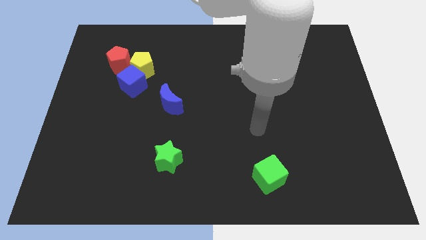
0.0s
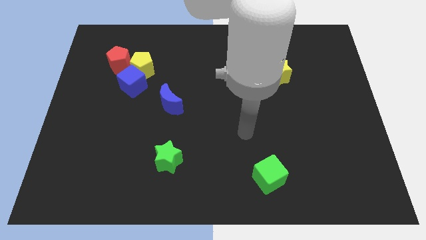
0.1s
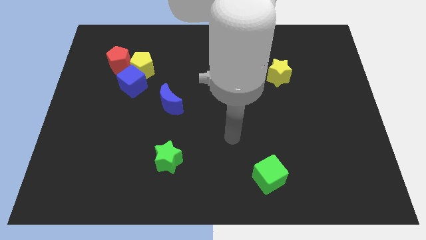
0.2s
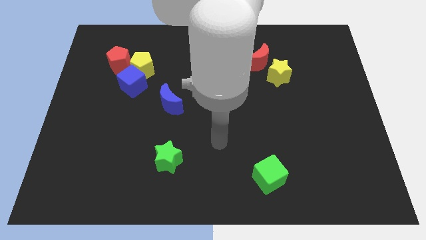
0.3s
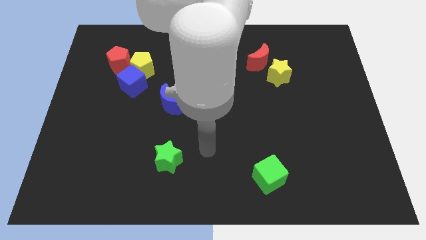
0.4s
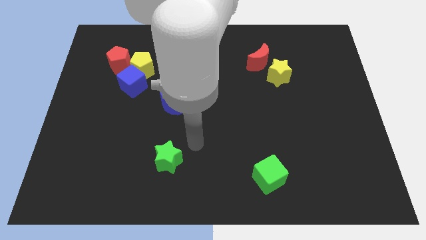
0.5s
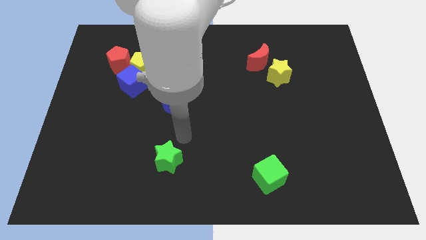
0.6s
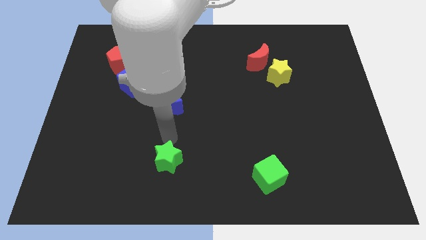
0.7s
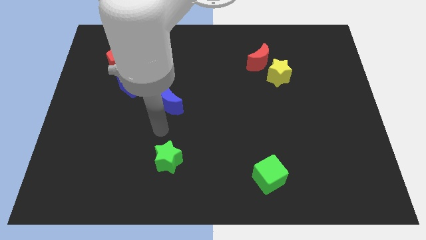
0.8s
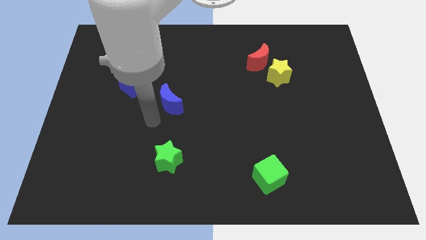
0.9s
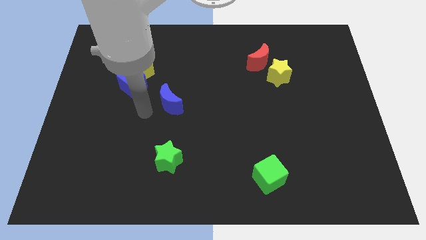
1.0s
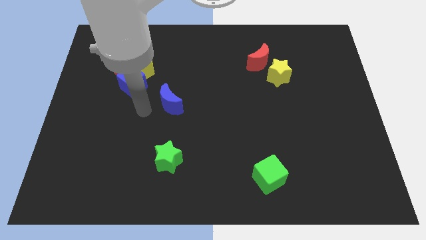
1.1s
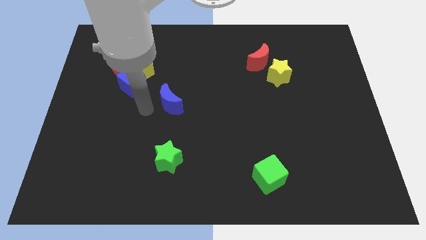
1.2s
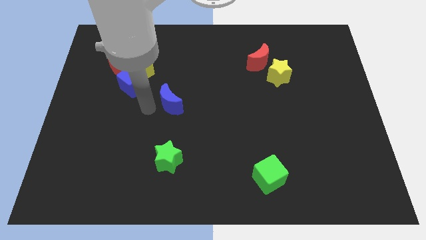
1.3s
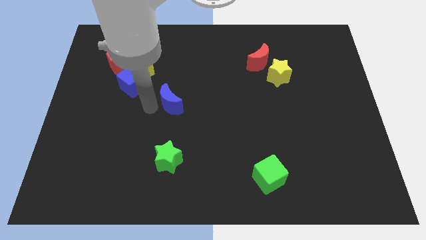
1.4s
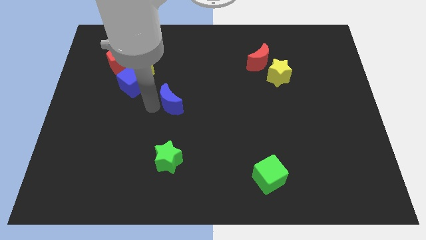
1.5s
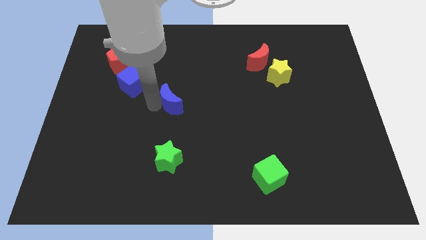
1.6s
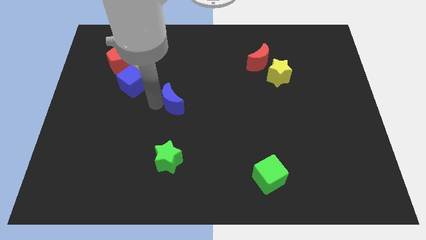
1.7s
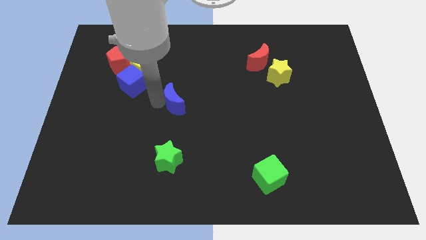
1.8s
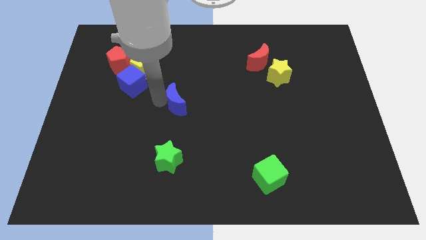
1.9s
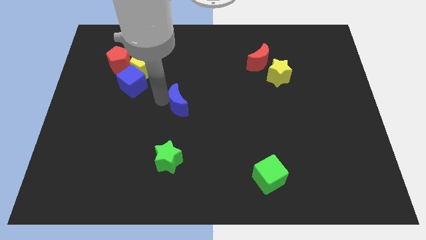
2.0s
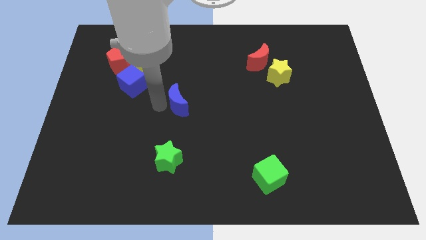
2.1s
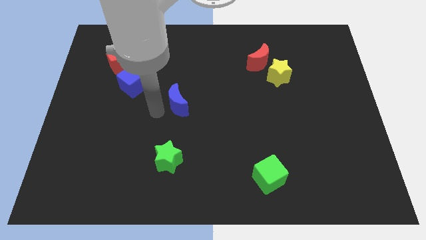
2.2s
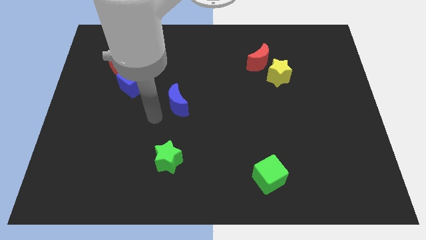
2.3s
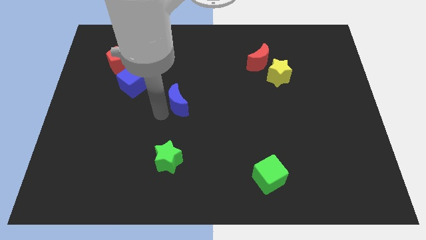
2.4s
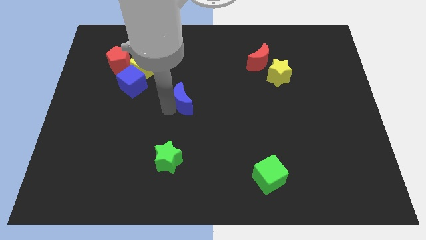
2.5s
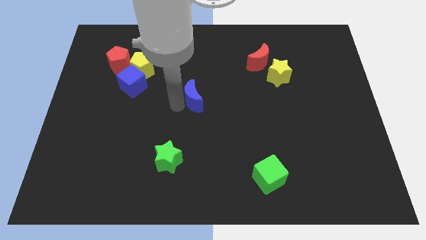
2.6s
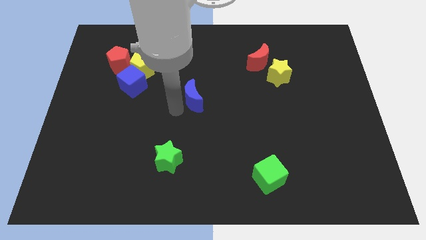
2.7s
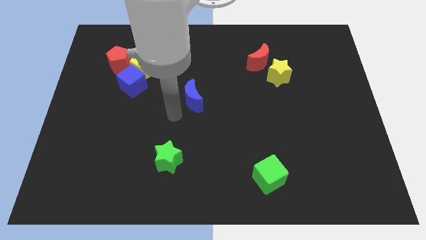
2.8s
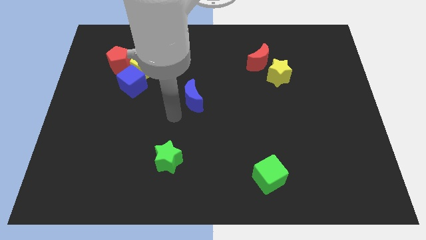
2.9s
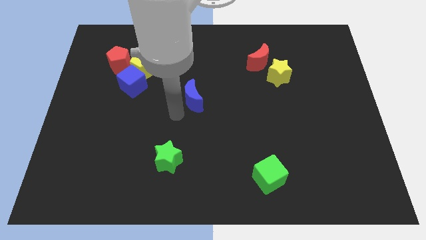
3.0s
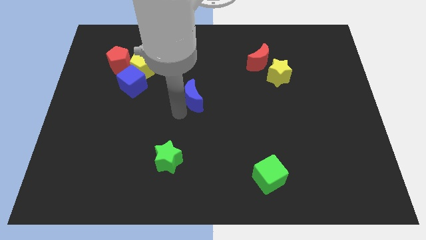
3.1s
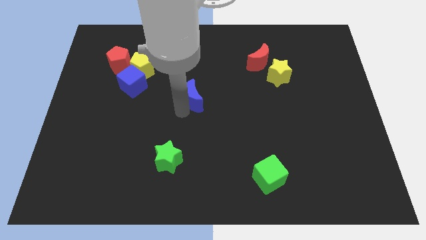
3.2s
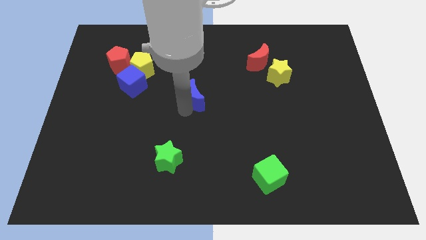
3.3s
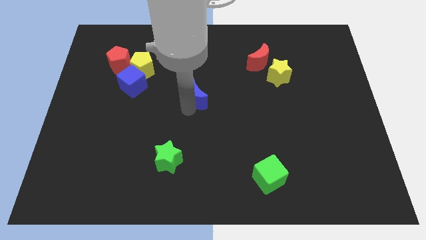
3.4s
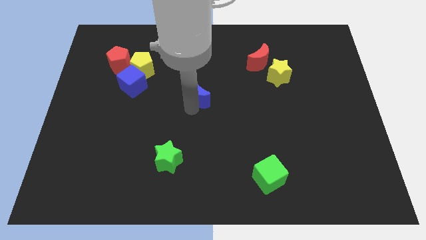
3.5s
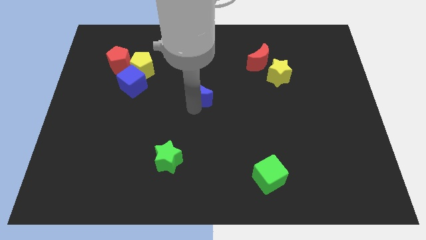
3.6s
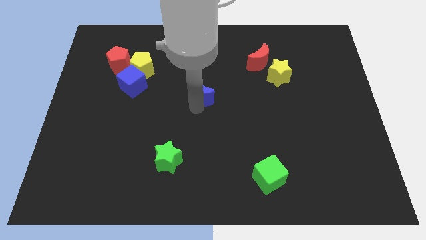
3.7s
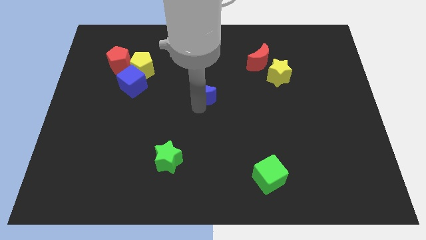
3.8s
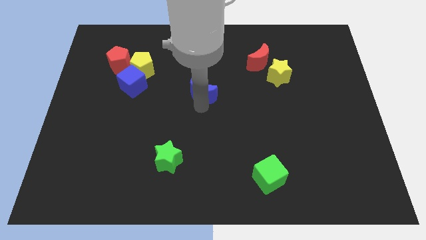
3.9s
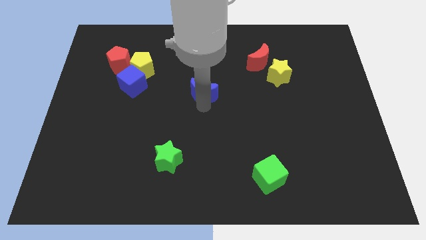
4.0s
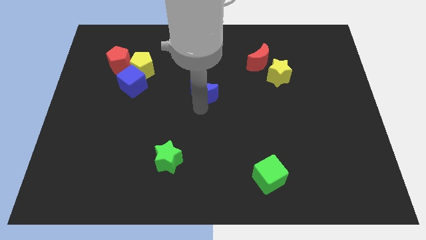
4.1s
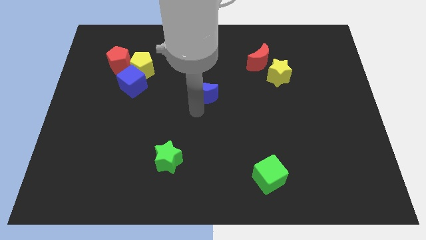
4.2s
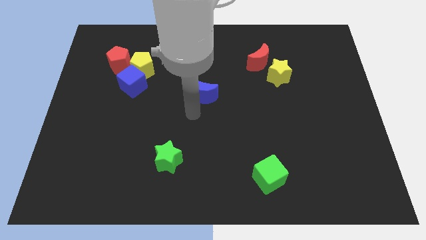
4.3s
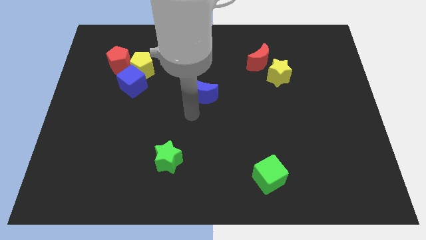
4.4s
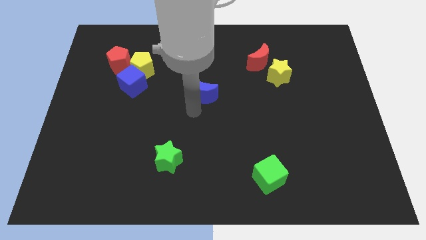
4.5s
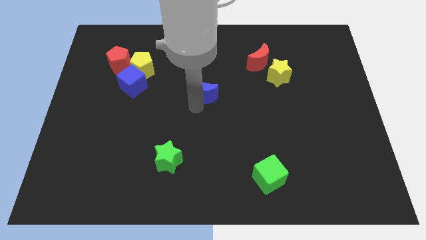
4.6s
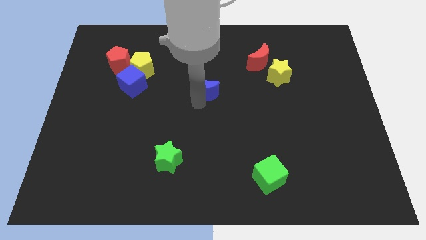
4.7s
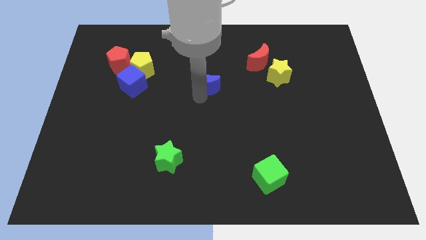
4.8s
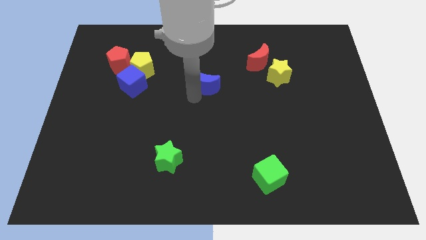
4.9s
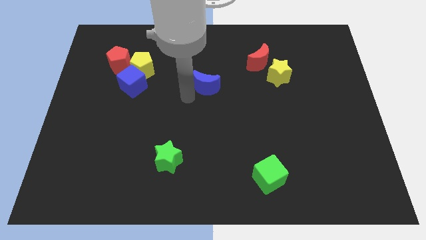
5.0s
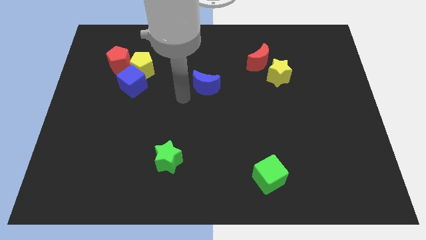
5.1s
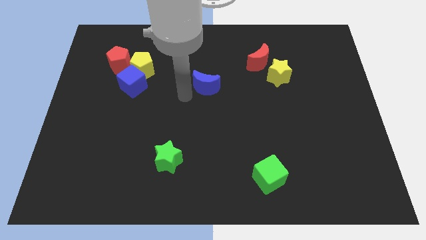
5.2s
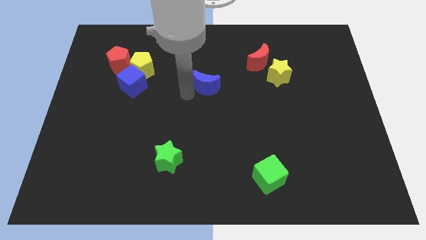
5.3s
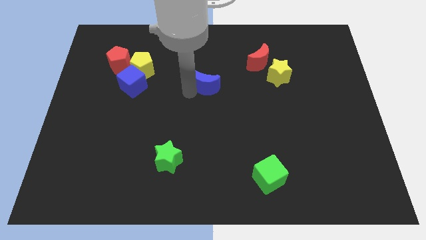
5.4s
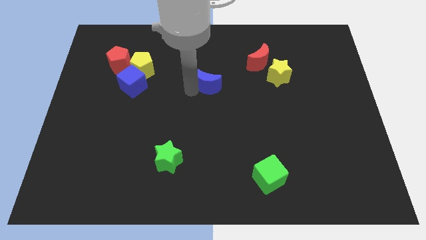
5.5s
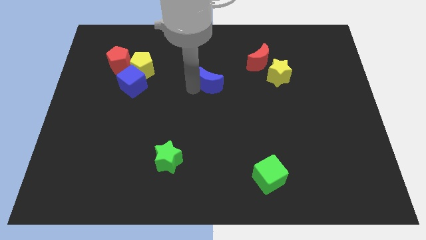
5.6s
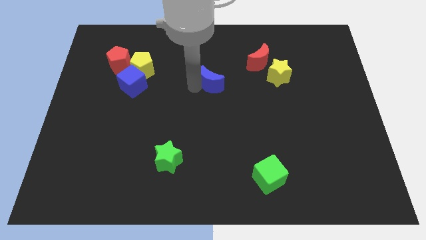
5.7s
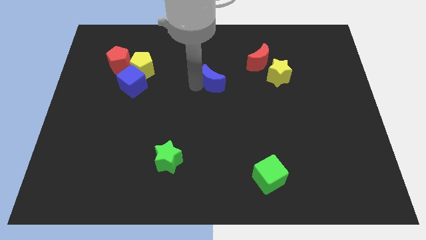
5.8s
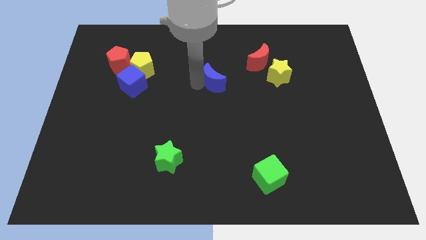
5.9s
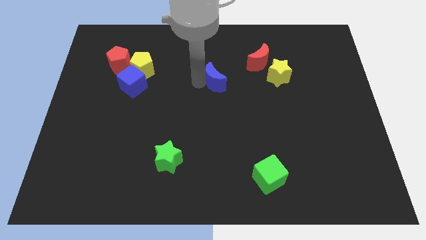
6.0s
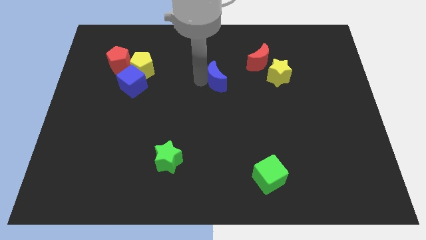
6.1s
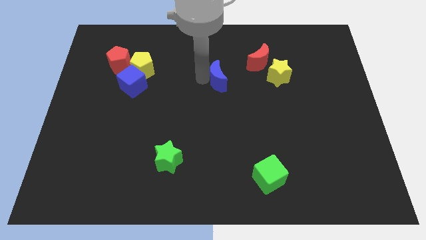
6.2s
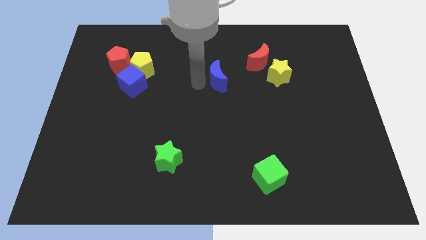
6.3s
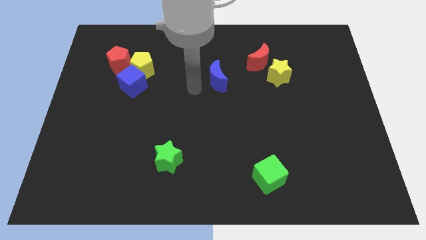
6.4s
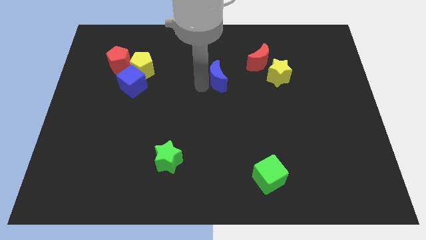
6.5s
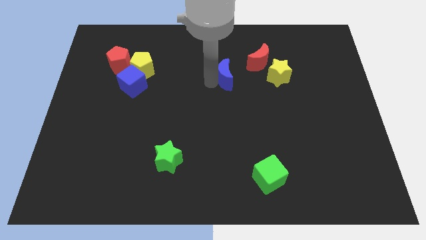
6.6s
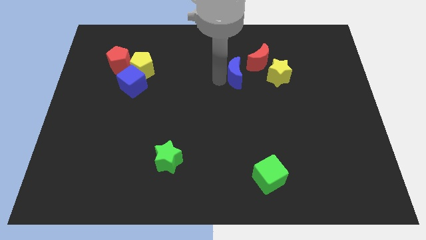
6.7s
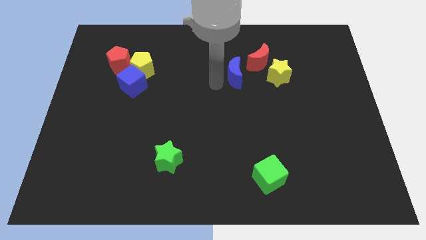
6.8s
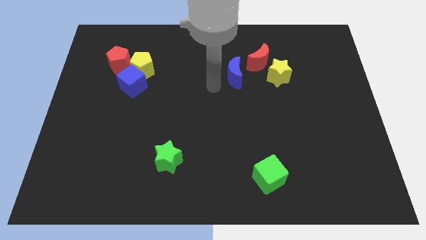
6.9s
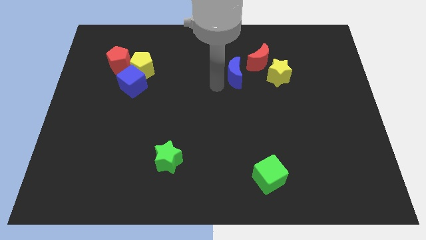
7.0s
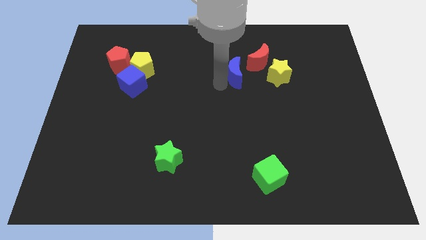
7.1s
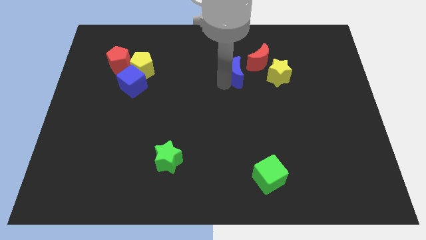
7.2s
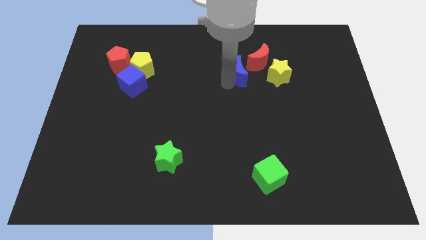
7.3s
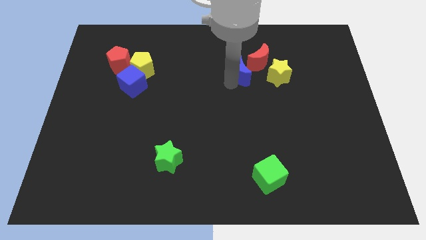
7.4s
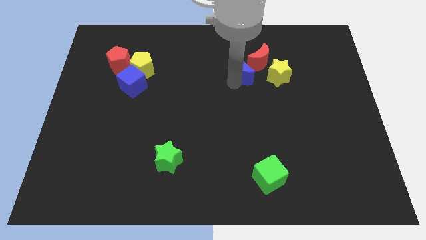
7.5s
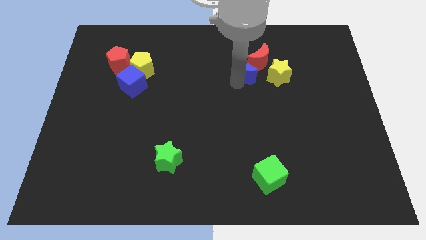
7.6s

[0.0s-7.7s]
slide the blue moon close to the red moon

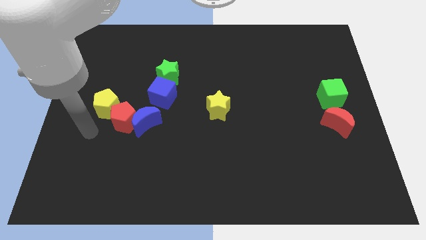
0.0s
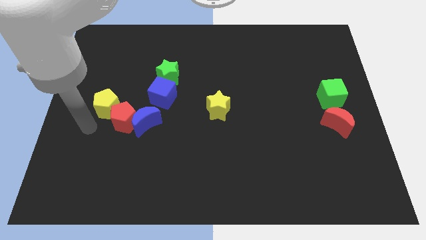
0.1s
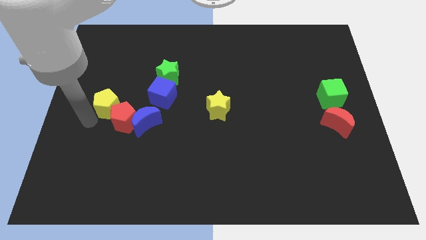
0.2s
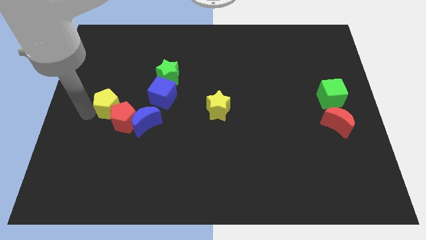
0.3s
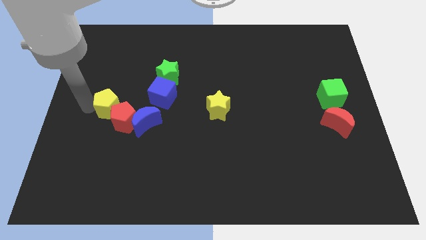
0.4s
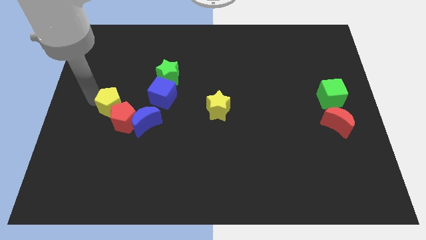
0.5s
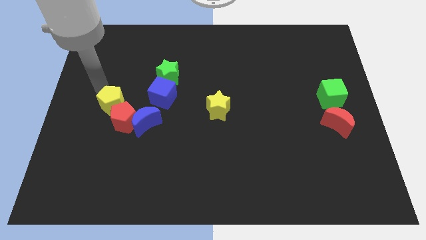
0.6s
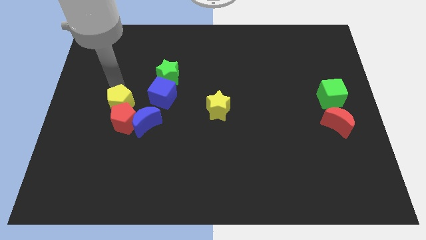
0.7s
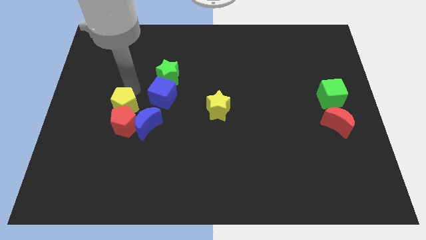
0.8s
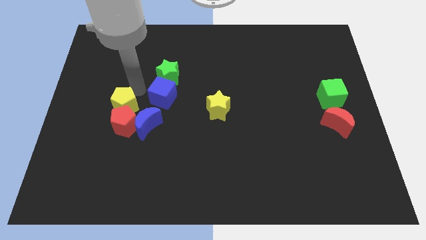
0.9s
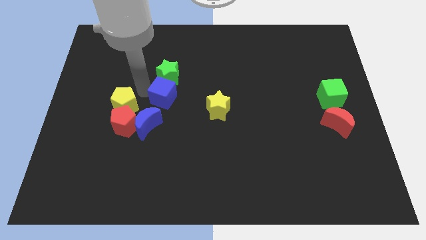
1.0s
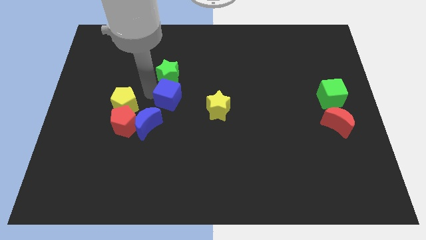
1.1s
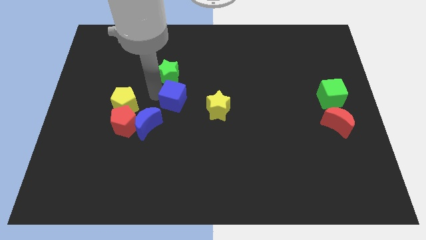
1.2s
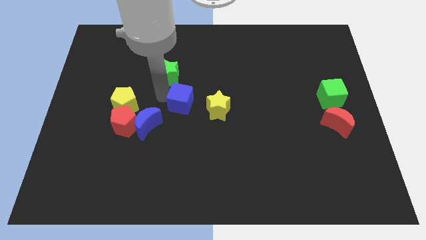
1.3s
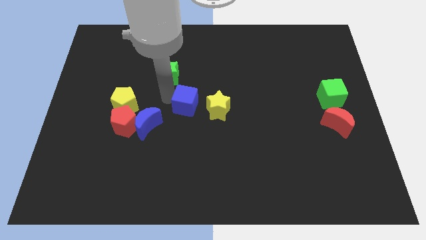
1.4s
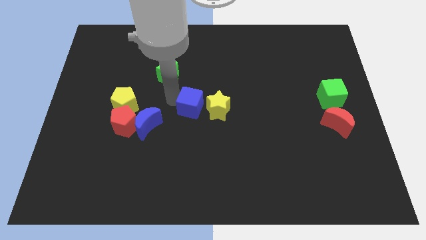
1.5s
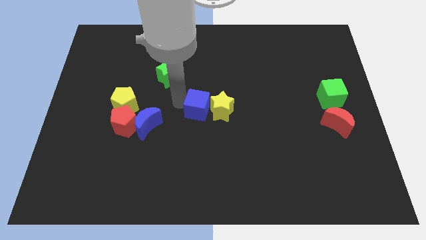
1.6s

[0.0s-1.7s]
put the blue cube close to the yellow star
